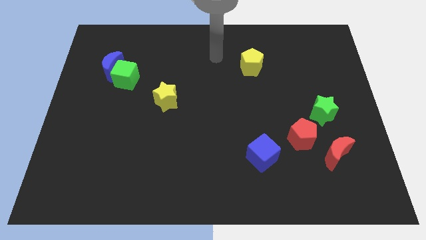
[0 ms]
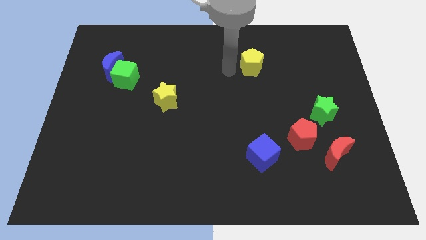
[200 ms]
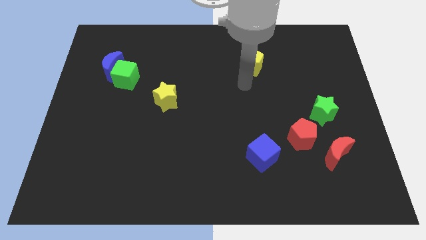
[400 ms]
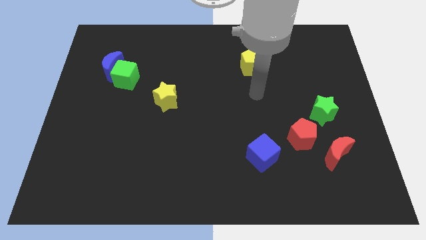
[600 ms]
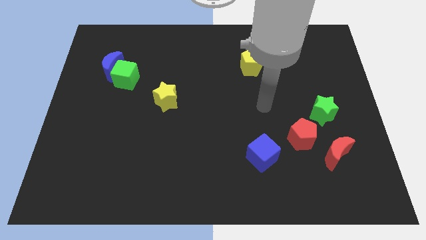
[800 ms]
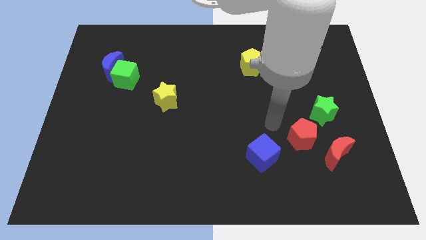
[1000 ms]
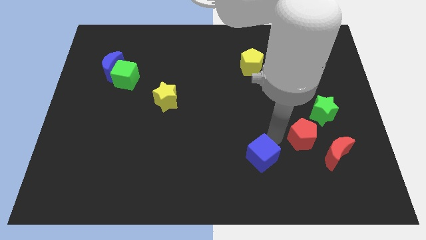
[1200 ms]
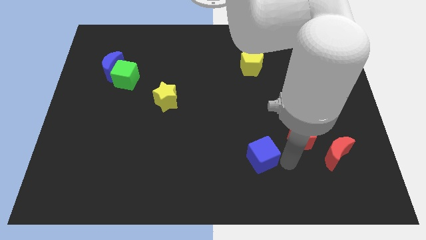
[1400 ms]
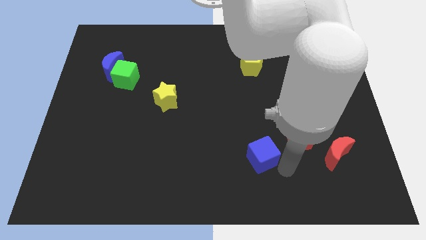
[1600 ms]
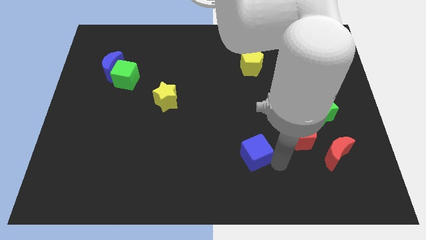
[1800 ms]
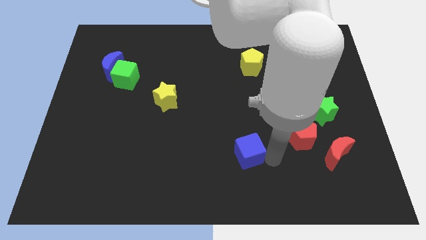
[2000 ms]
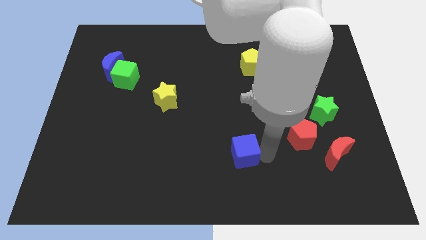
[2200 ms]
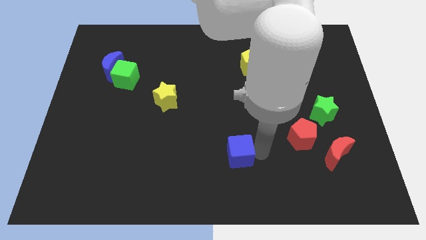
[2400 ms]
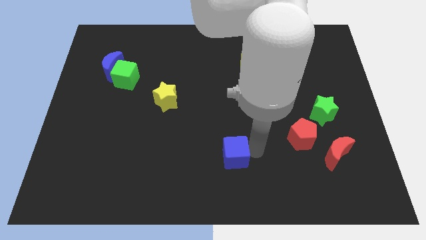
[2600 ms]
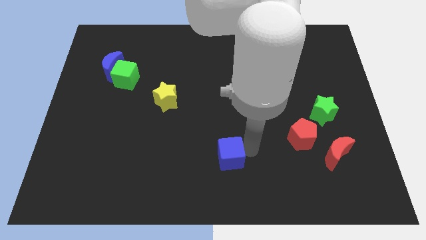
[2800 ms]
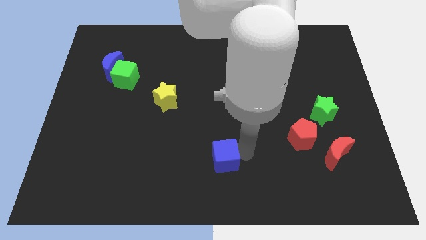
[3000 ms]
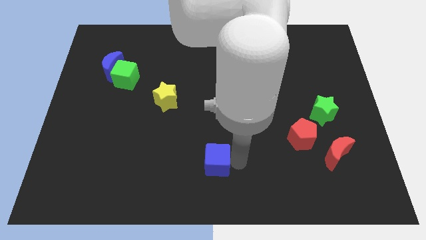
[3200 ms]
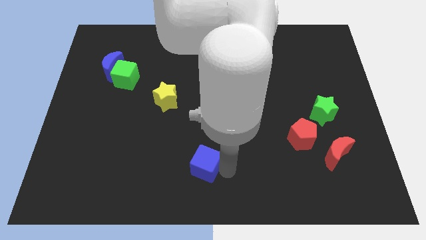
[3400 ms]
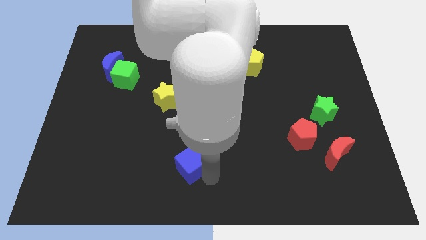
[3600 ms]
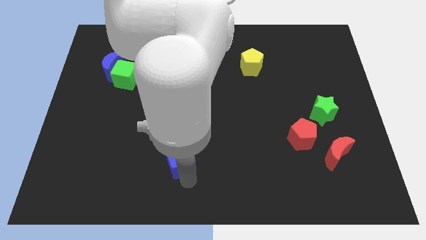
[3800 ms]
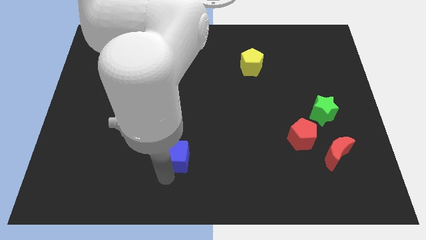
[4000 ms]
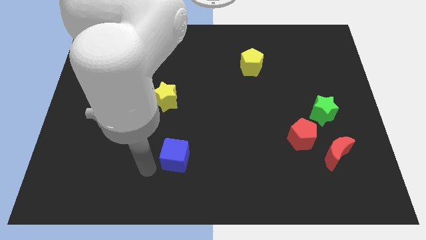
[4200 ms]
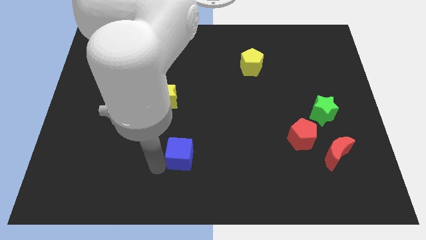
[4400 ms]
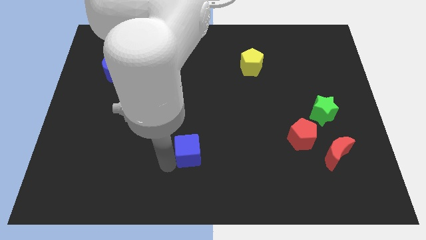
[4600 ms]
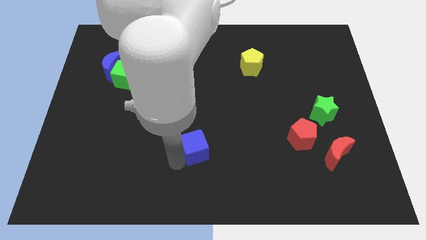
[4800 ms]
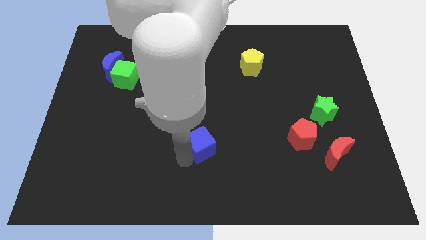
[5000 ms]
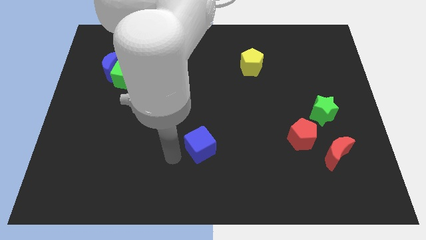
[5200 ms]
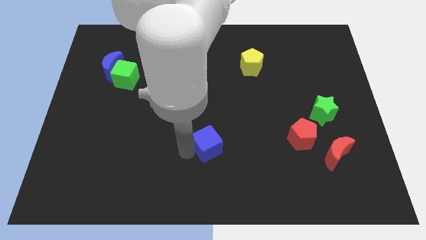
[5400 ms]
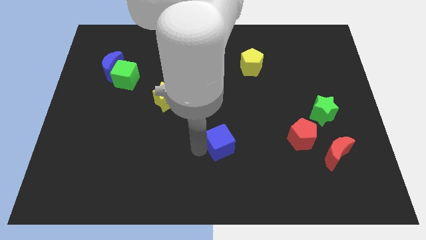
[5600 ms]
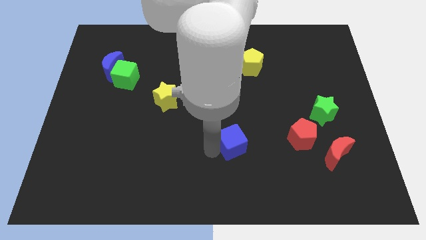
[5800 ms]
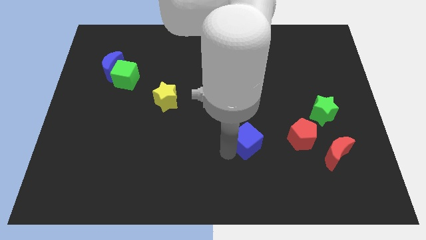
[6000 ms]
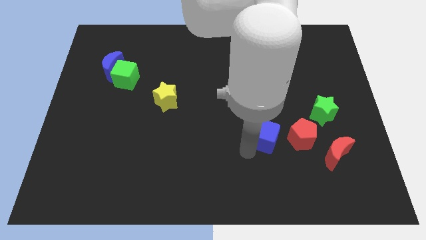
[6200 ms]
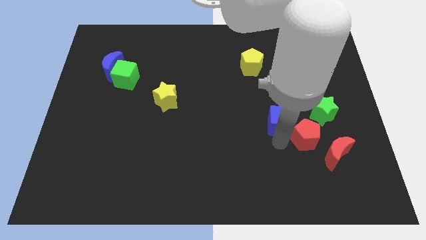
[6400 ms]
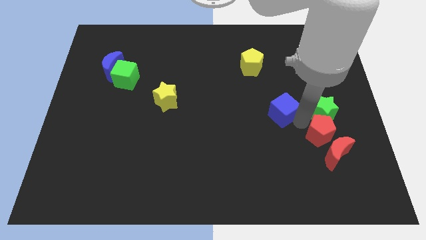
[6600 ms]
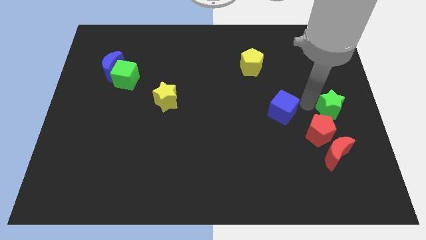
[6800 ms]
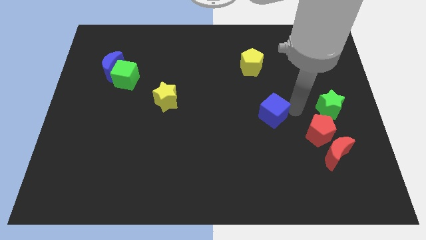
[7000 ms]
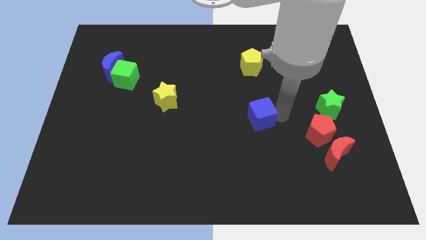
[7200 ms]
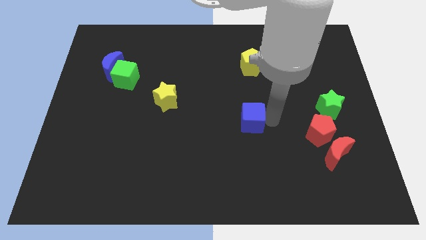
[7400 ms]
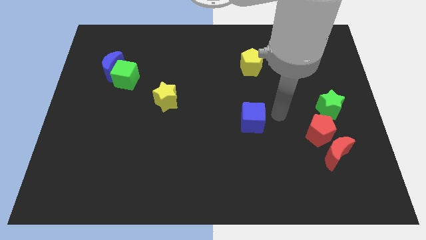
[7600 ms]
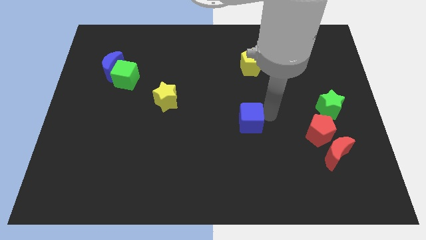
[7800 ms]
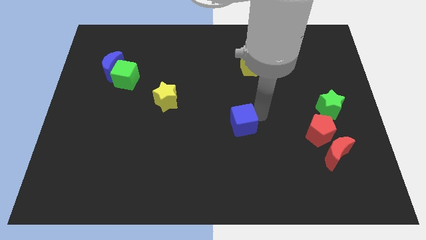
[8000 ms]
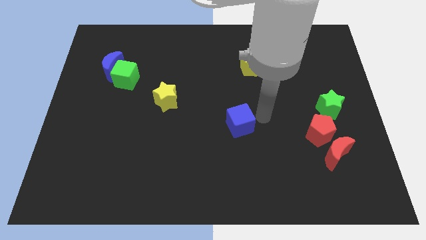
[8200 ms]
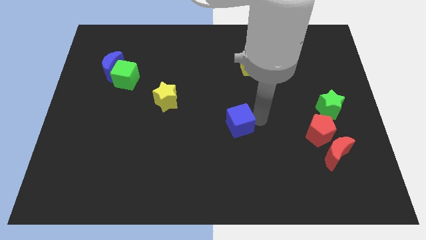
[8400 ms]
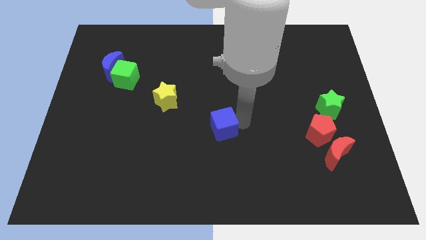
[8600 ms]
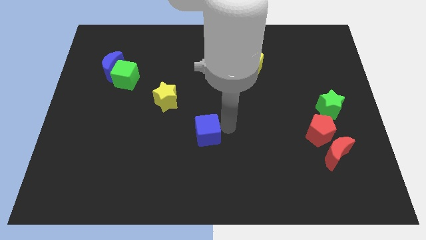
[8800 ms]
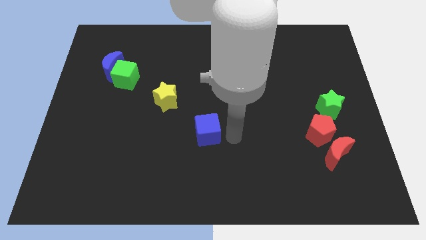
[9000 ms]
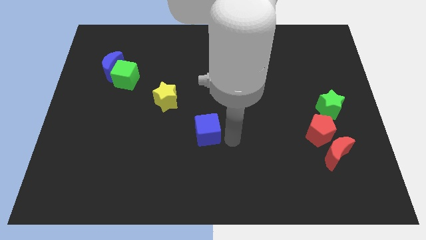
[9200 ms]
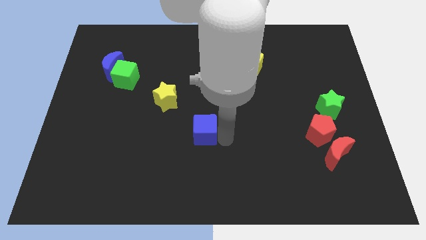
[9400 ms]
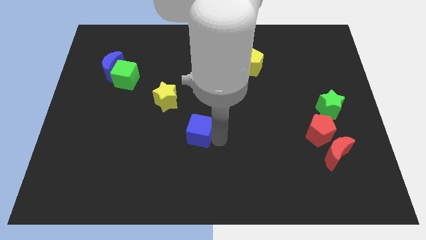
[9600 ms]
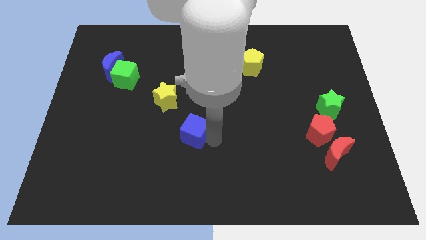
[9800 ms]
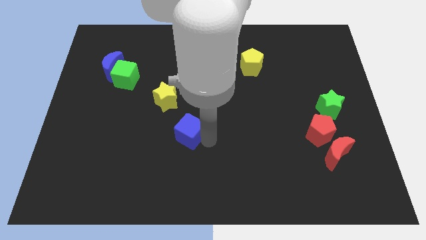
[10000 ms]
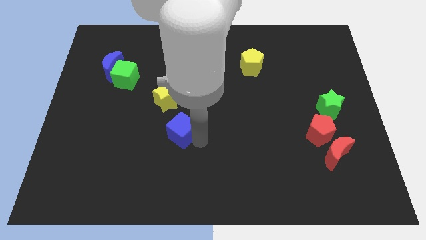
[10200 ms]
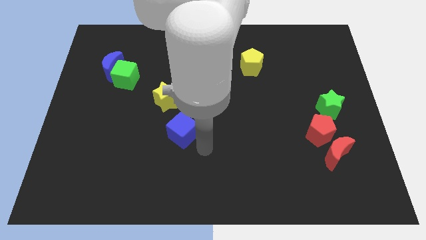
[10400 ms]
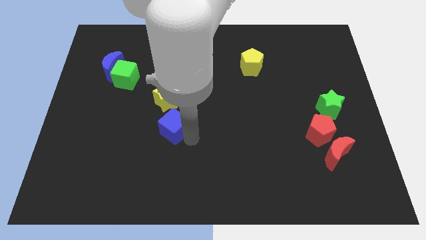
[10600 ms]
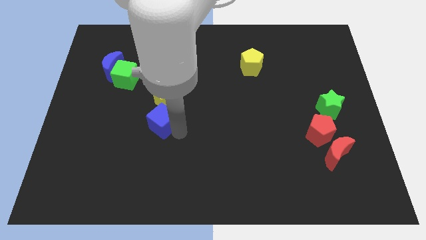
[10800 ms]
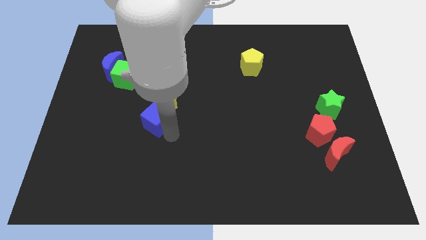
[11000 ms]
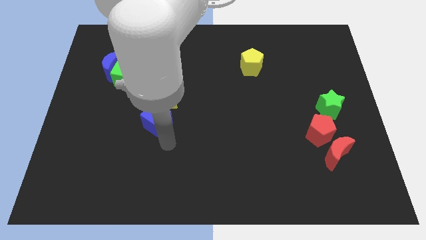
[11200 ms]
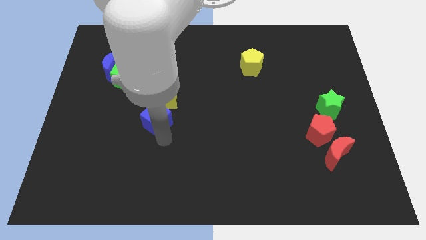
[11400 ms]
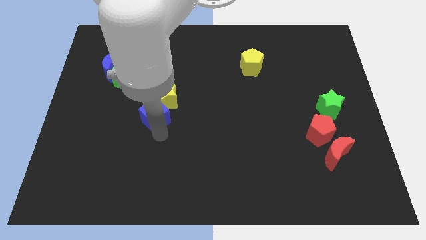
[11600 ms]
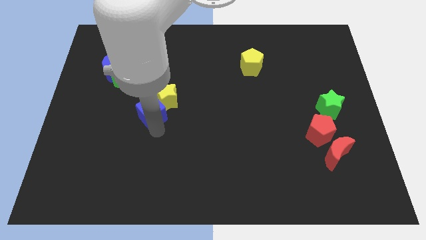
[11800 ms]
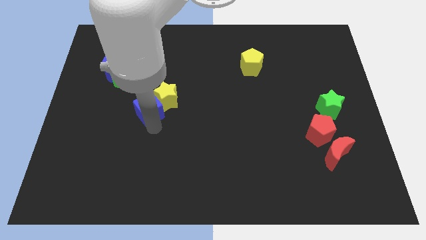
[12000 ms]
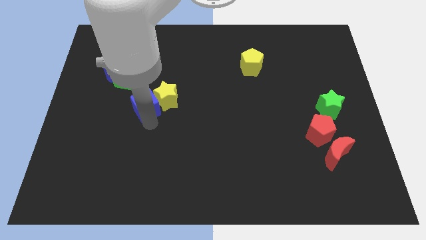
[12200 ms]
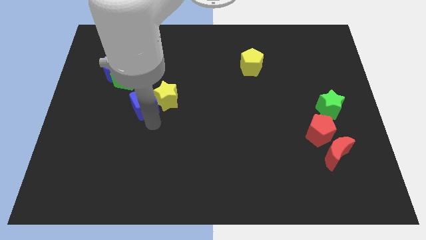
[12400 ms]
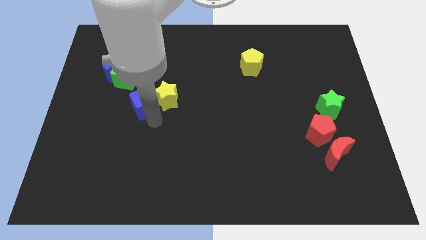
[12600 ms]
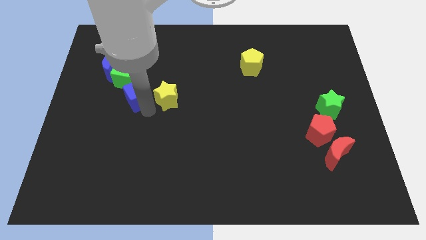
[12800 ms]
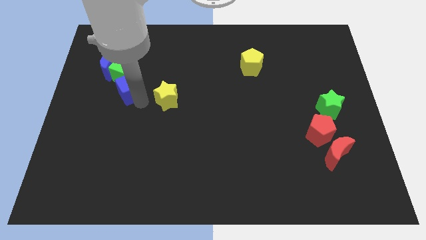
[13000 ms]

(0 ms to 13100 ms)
push the blue cube next to the green cube

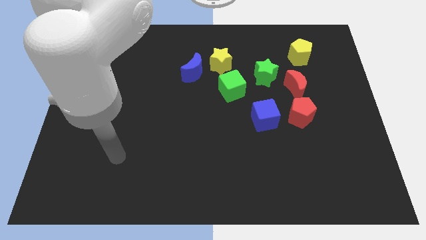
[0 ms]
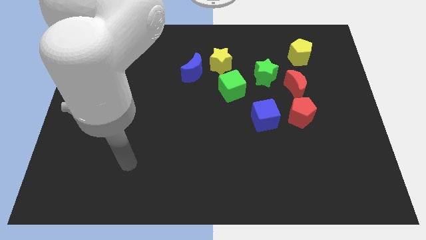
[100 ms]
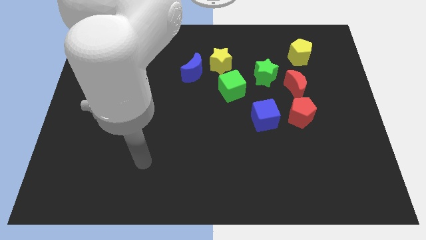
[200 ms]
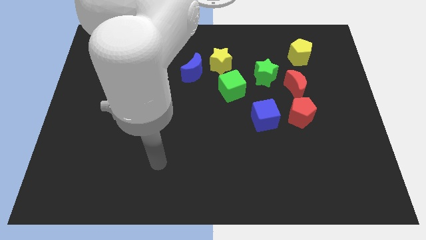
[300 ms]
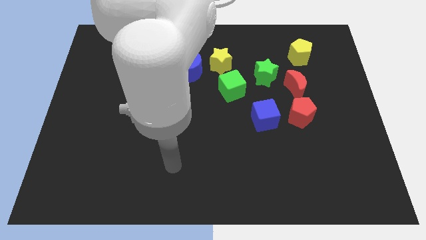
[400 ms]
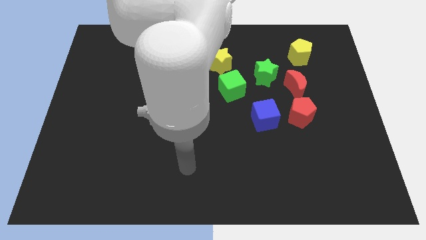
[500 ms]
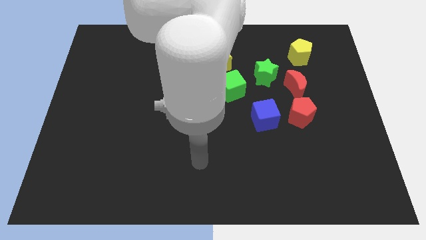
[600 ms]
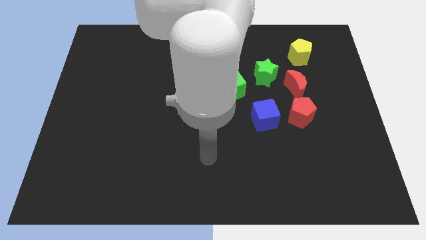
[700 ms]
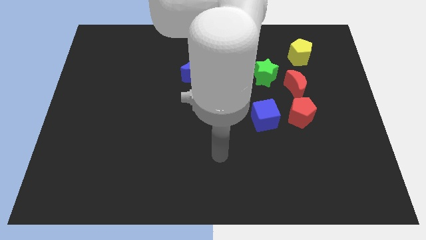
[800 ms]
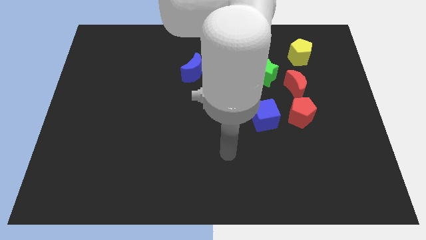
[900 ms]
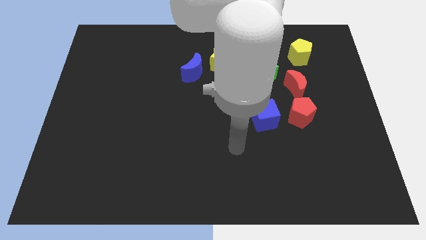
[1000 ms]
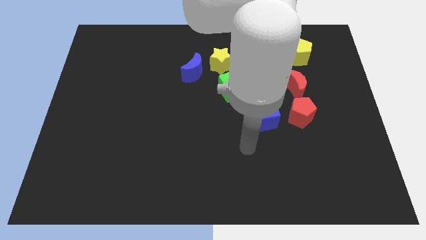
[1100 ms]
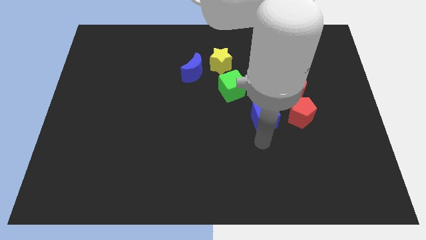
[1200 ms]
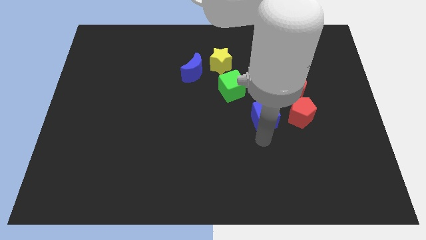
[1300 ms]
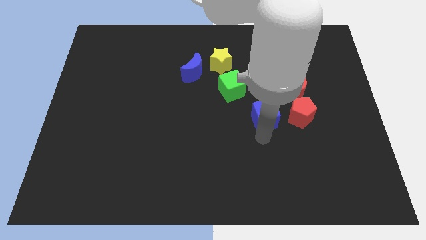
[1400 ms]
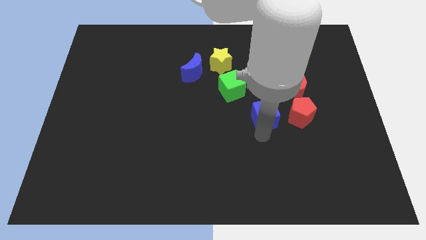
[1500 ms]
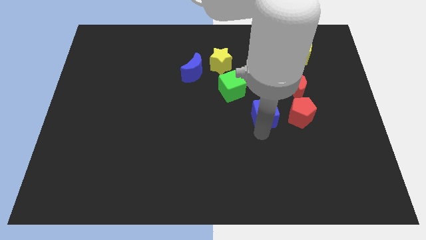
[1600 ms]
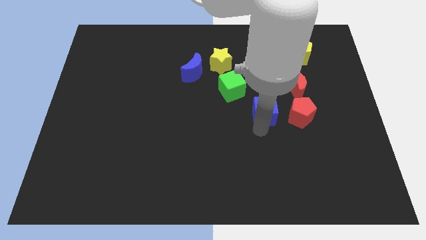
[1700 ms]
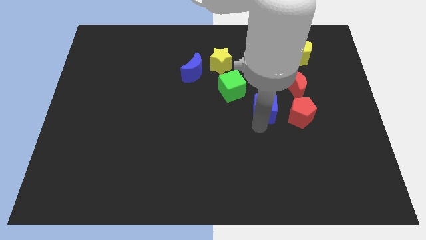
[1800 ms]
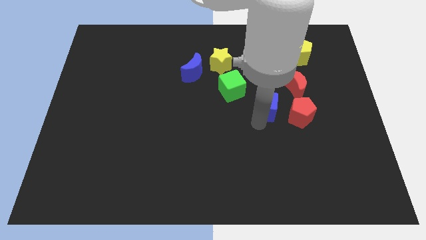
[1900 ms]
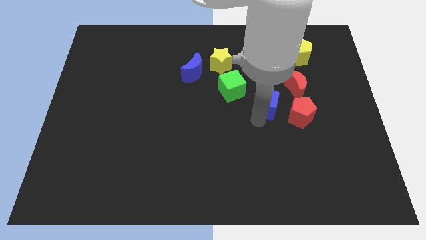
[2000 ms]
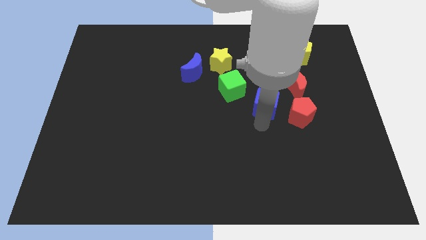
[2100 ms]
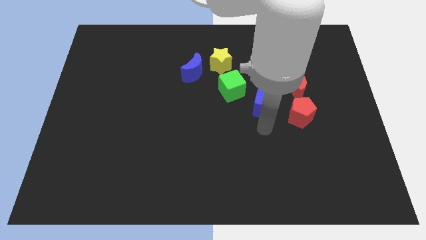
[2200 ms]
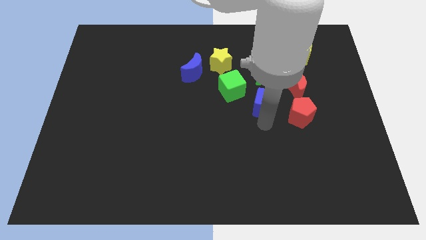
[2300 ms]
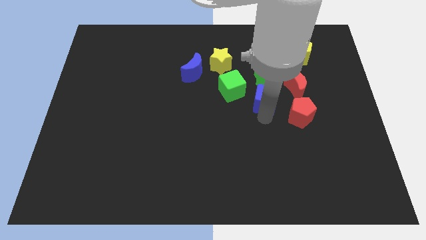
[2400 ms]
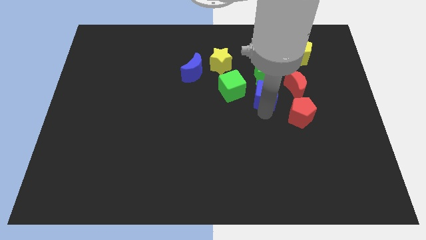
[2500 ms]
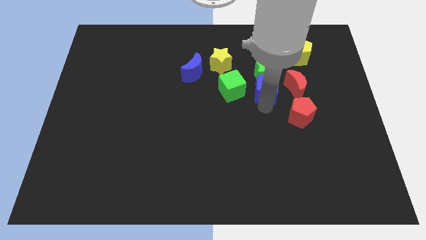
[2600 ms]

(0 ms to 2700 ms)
slide the blue cube close to the green star
